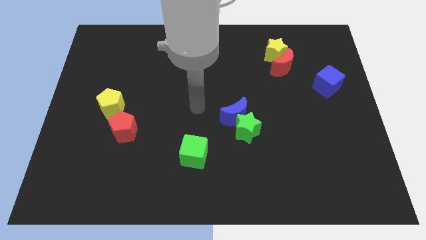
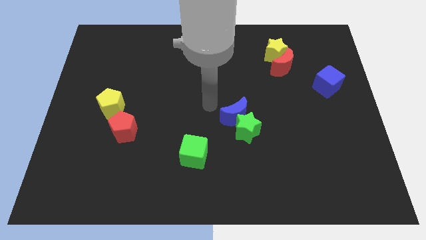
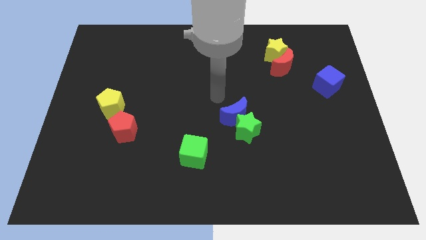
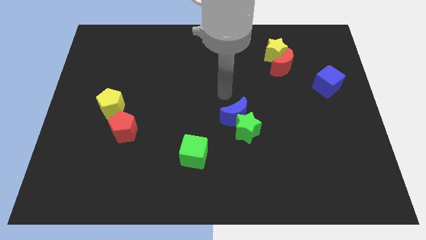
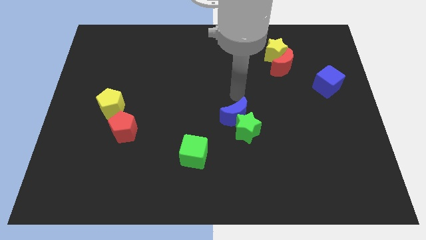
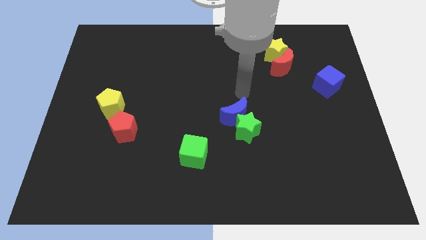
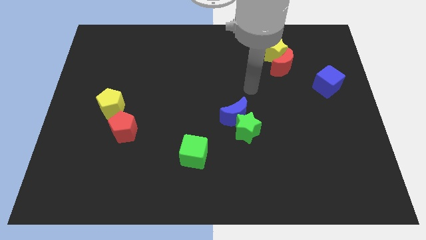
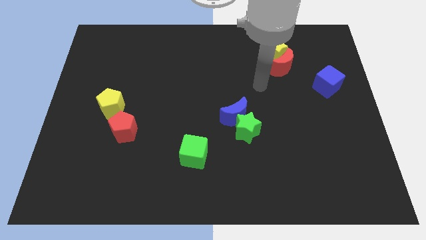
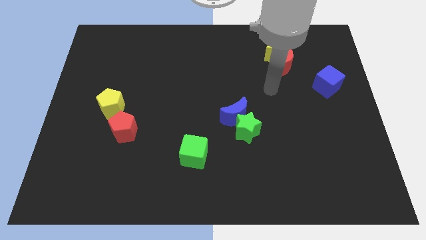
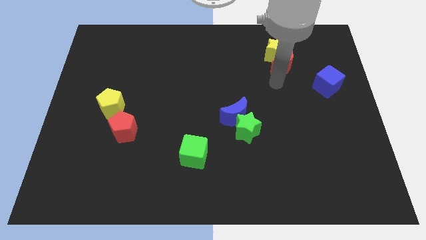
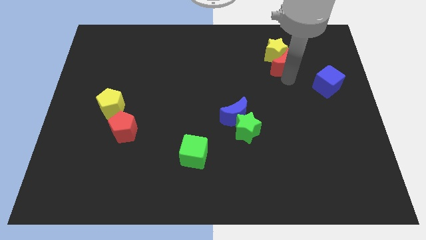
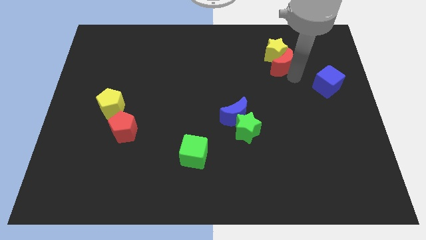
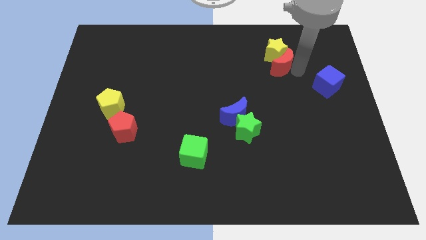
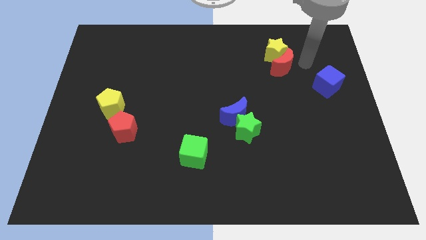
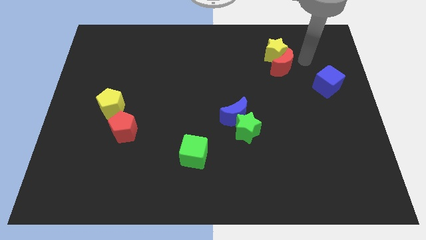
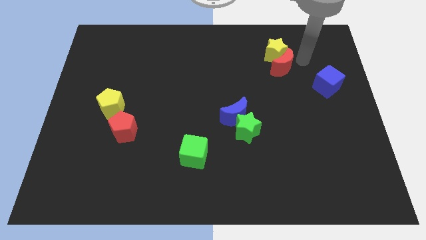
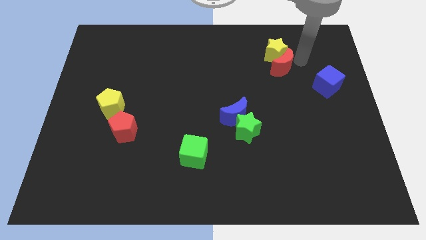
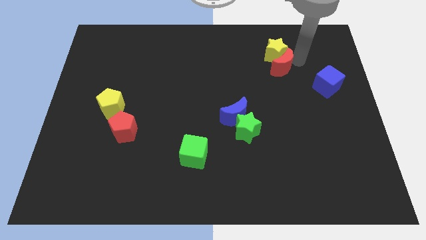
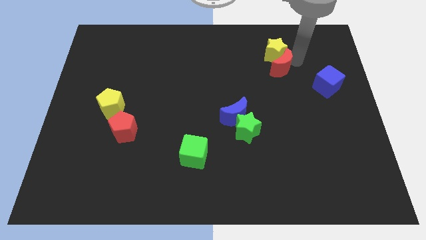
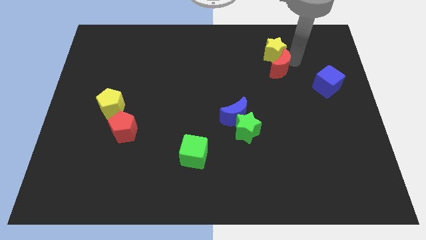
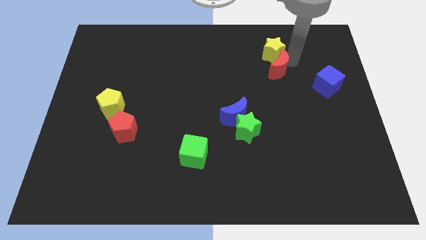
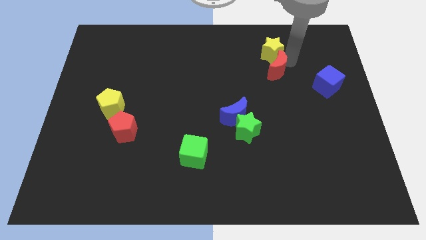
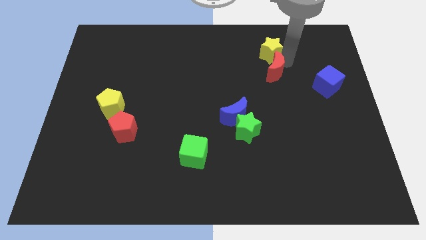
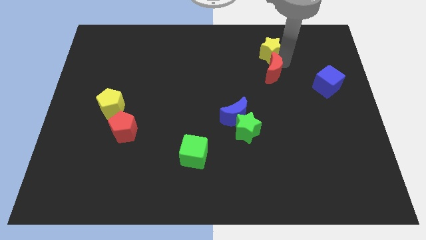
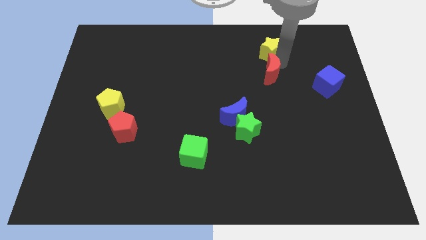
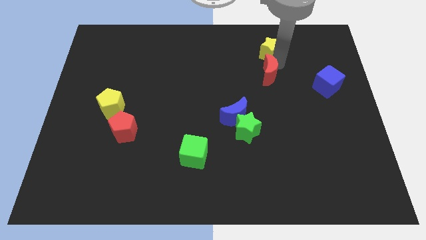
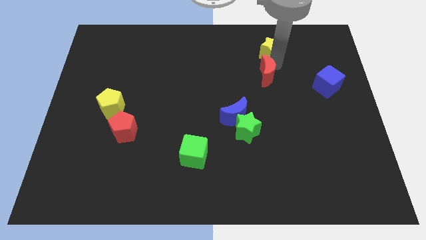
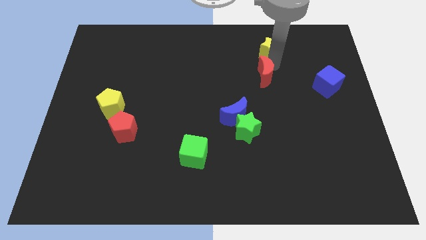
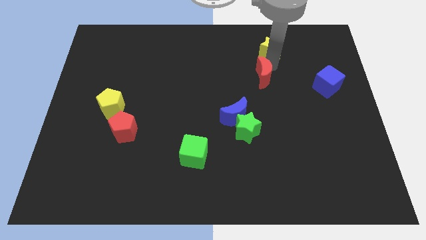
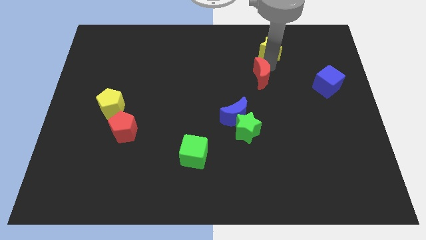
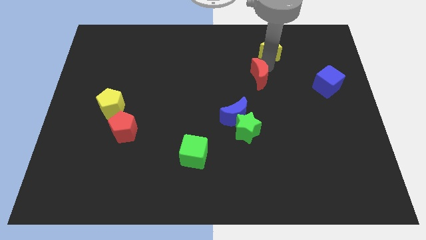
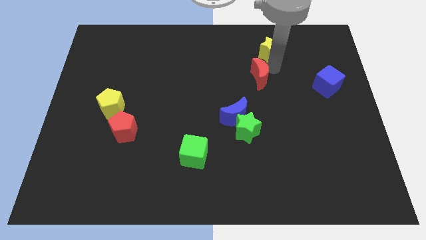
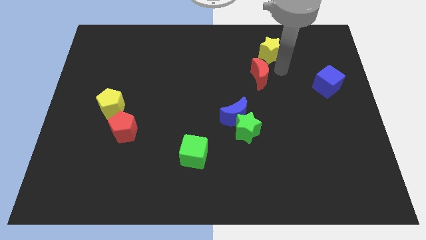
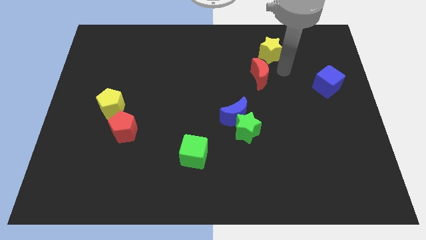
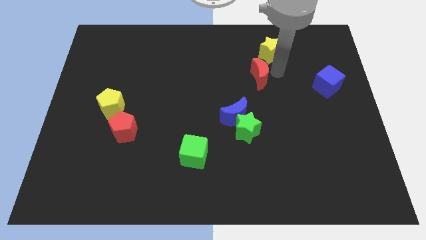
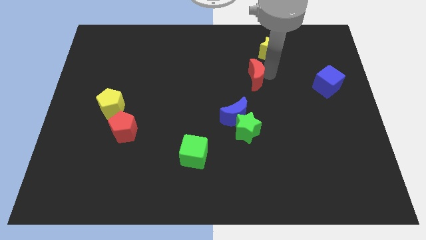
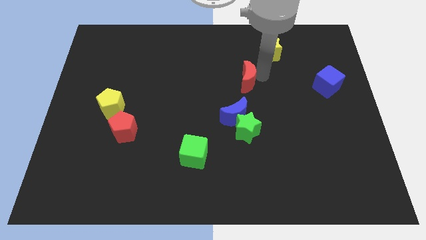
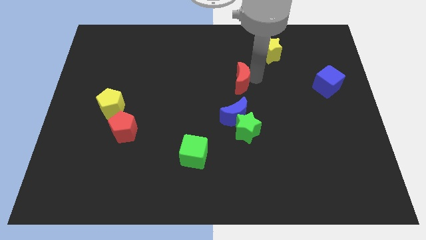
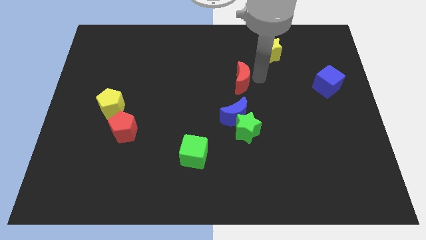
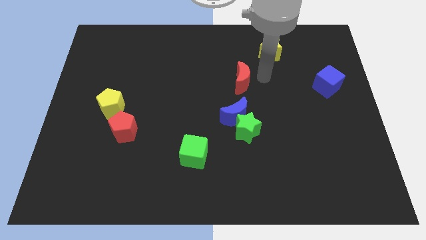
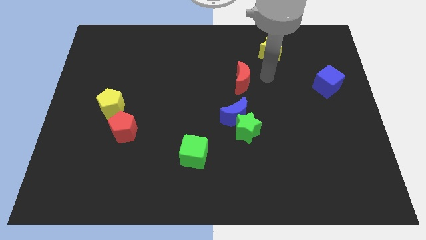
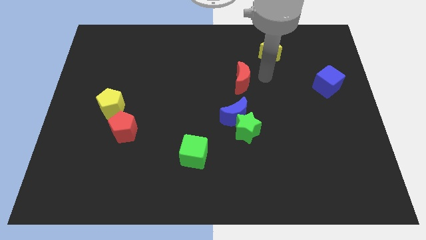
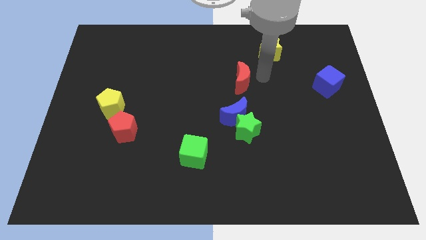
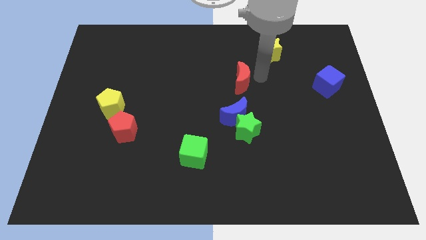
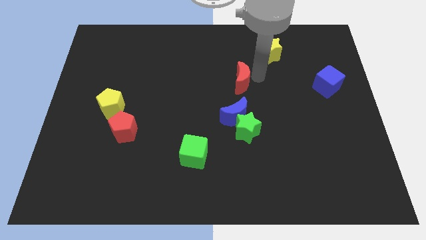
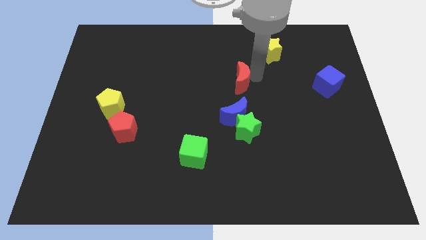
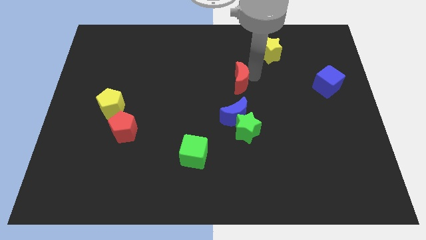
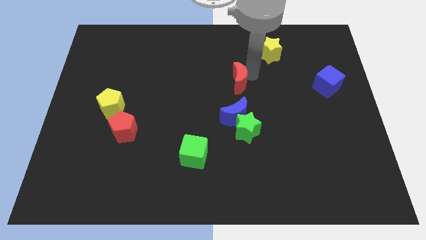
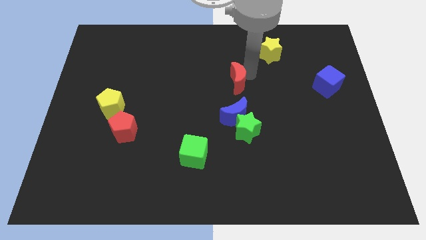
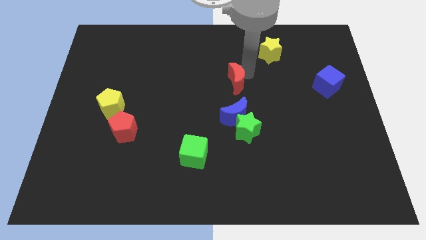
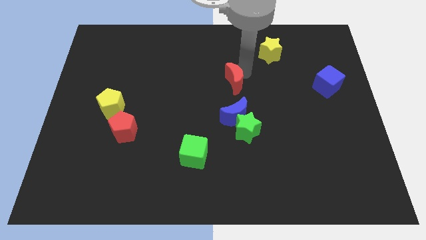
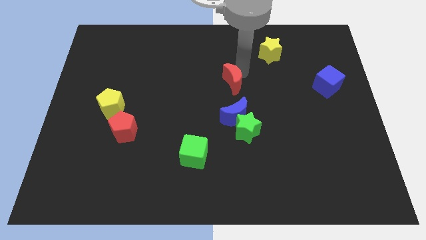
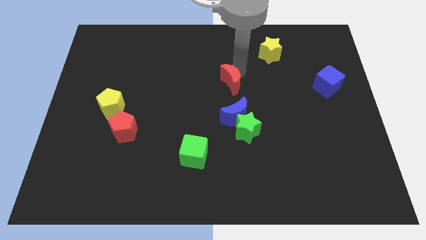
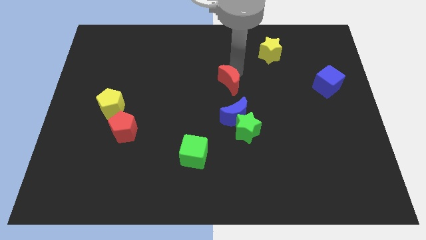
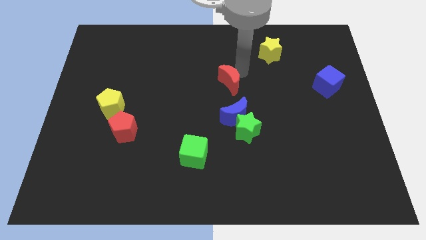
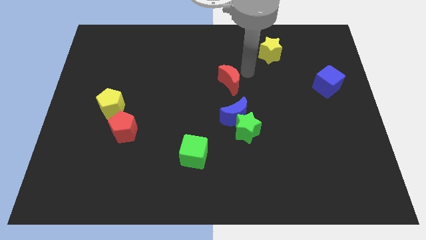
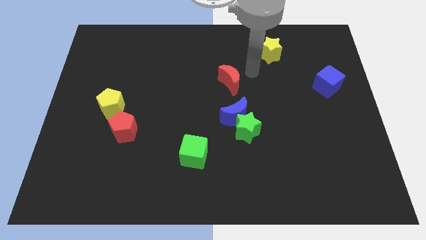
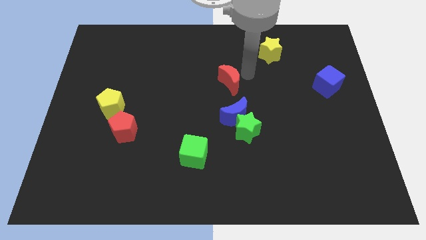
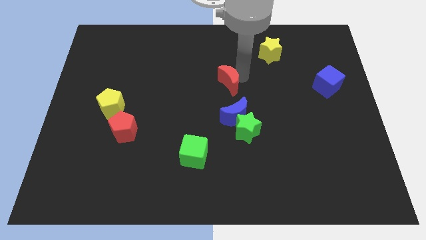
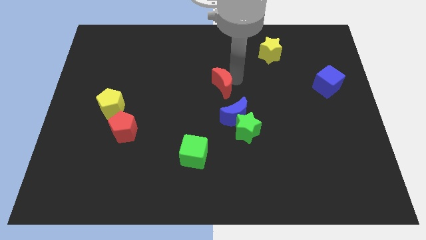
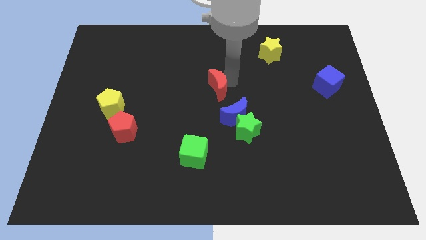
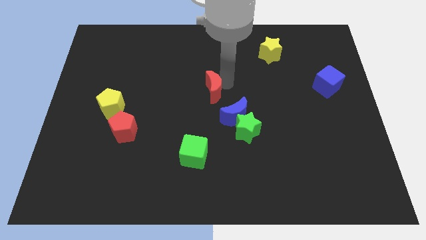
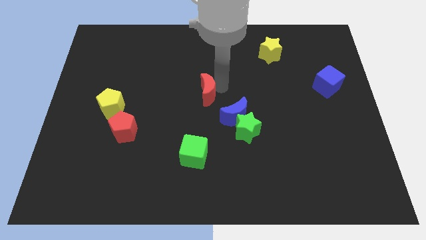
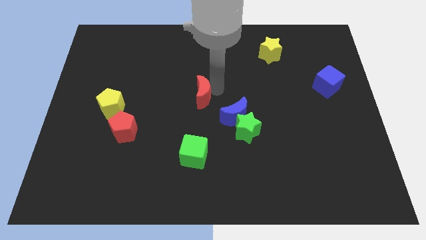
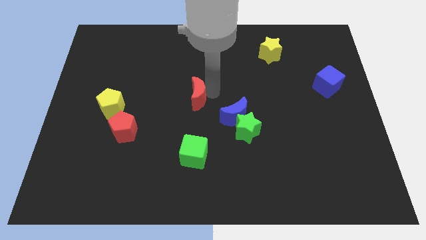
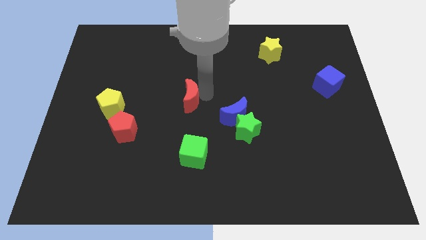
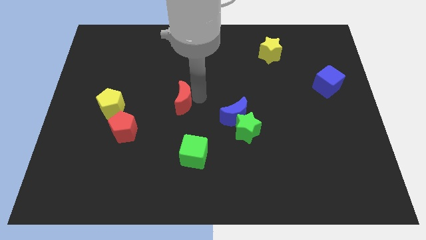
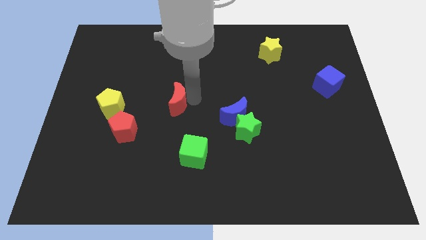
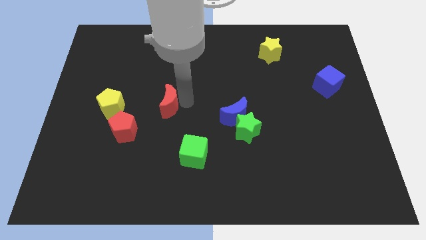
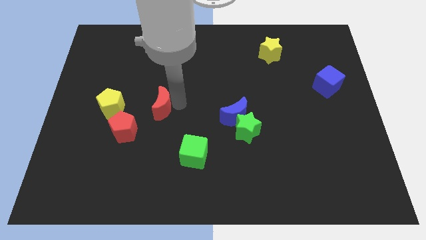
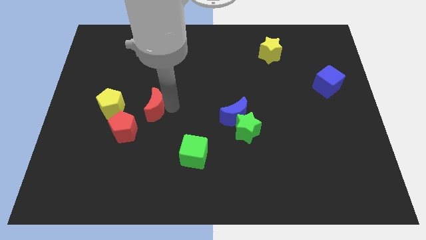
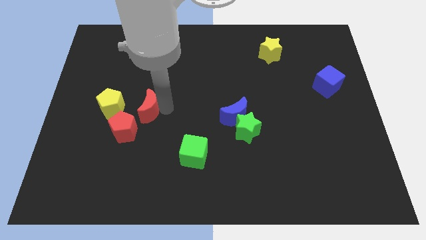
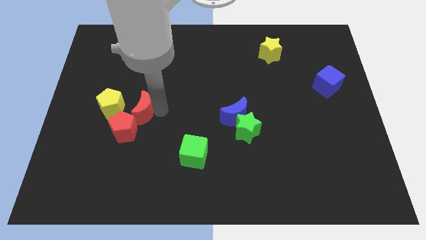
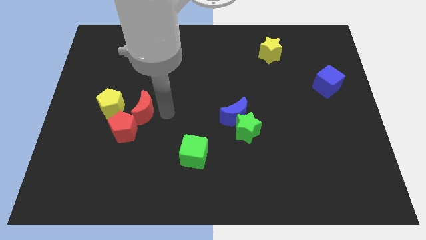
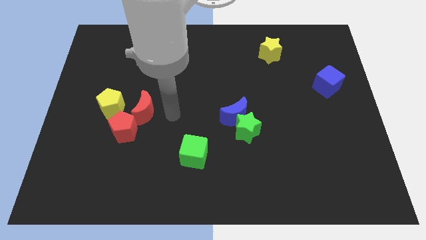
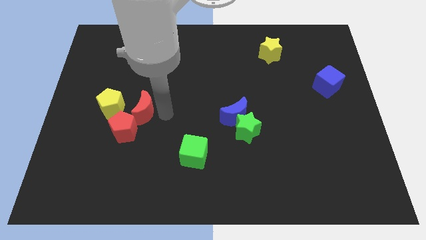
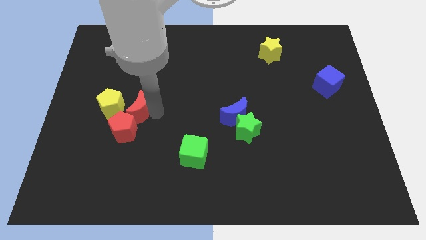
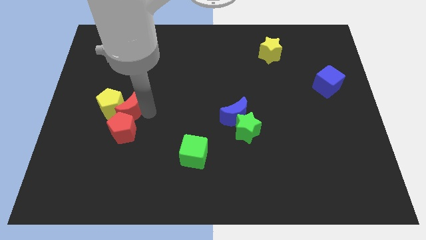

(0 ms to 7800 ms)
slide the red moon to the yellow pentagon
